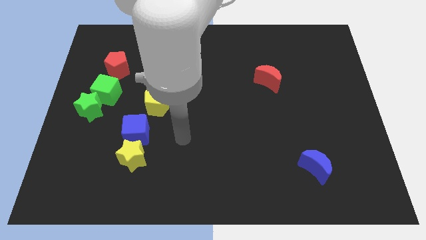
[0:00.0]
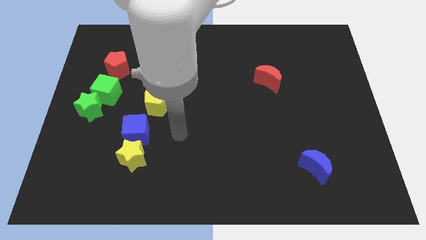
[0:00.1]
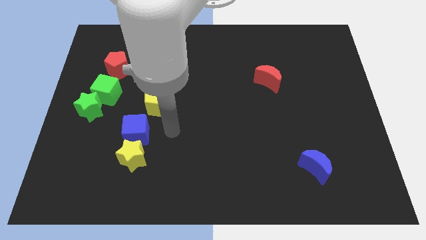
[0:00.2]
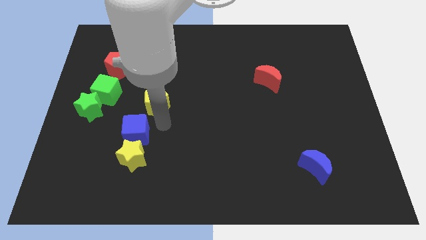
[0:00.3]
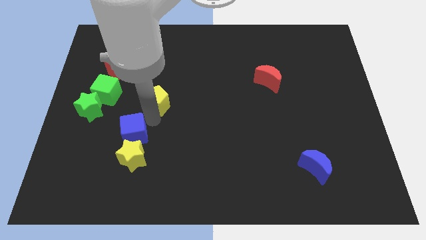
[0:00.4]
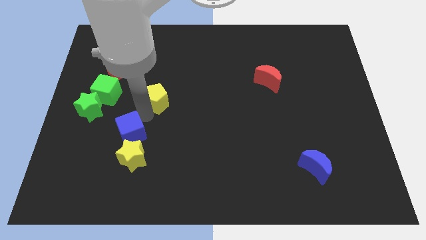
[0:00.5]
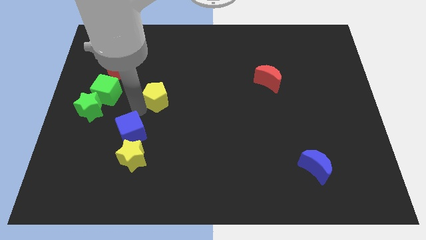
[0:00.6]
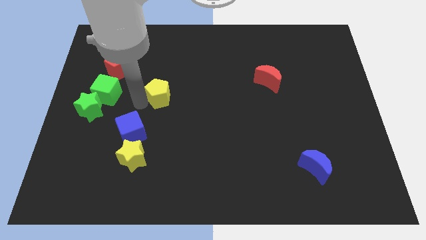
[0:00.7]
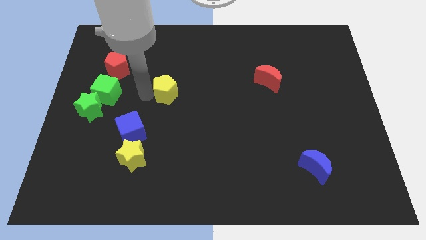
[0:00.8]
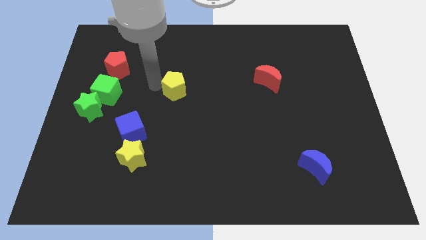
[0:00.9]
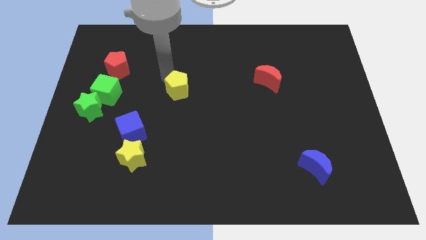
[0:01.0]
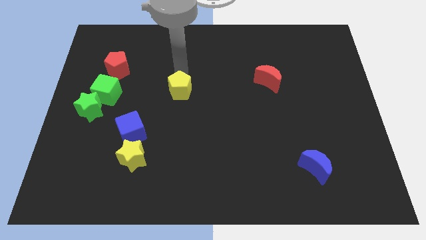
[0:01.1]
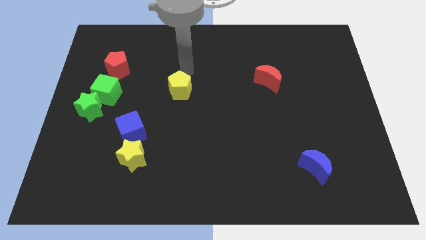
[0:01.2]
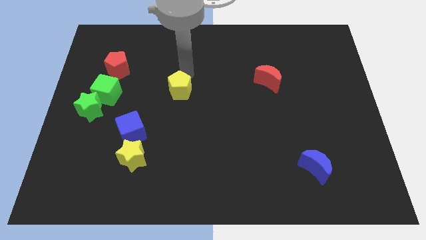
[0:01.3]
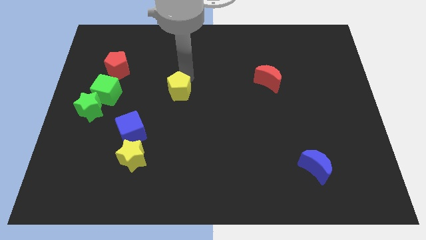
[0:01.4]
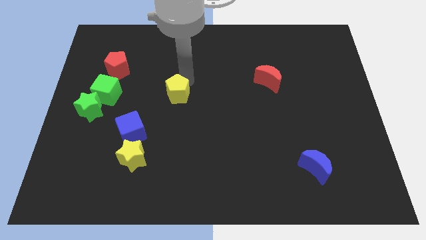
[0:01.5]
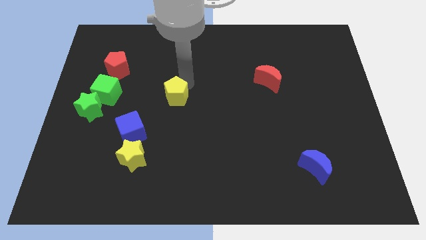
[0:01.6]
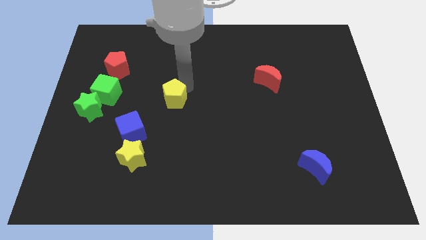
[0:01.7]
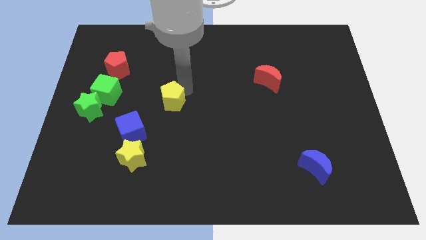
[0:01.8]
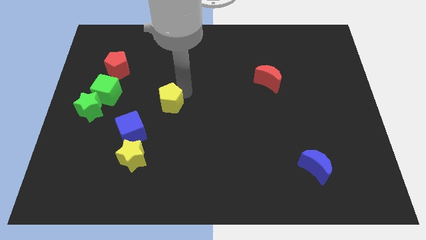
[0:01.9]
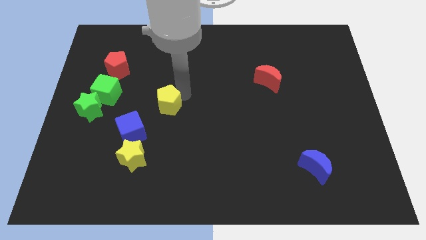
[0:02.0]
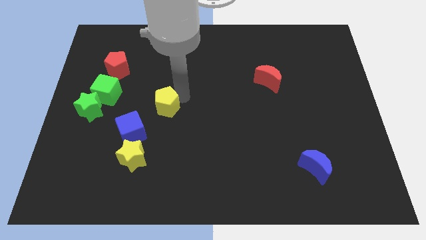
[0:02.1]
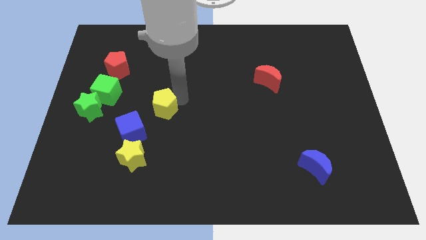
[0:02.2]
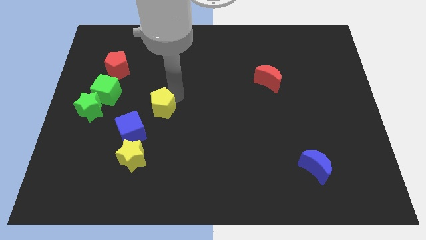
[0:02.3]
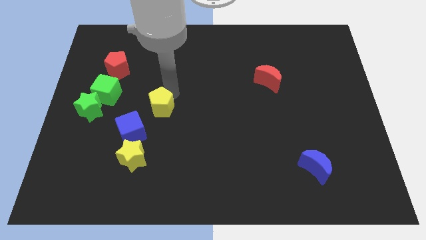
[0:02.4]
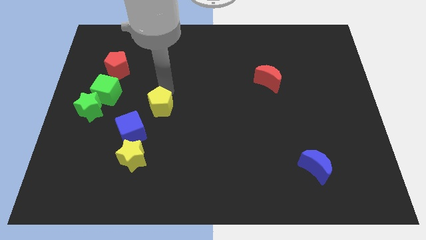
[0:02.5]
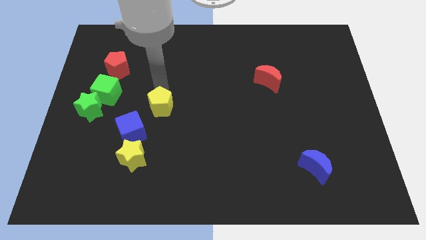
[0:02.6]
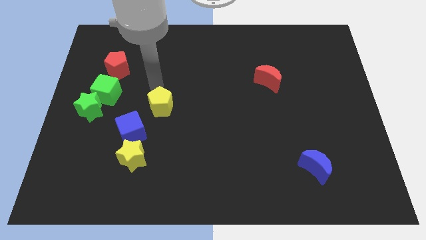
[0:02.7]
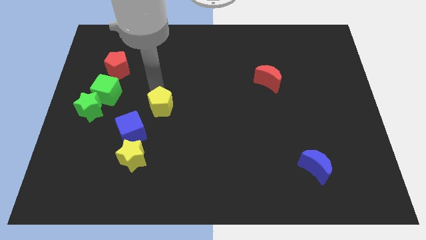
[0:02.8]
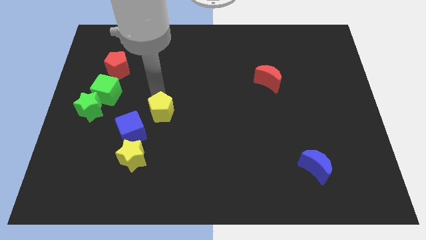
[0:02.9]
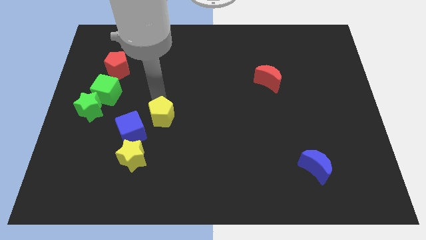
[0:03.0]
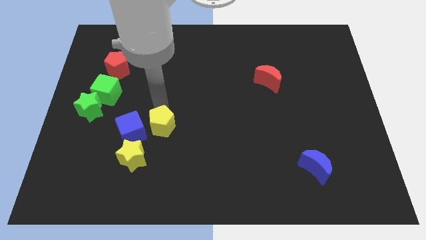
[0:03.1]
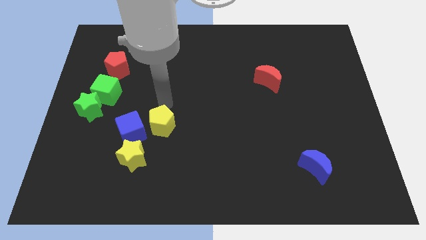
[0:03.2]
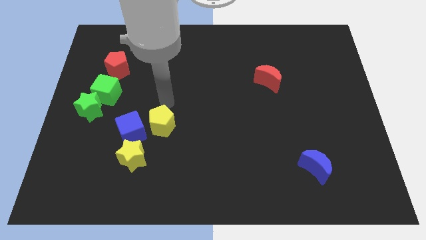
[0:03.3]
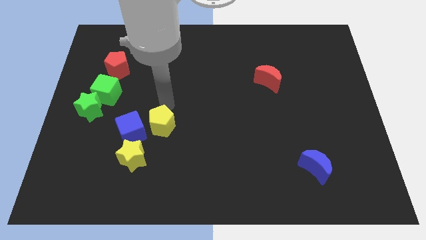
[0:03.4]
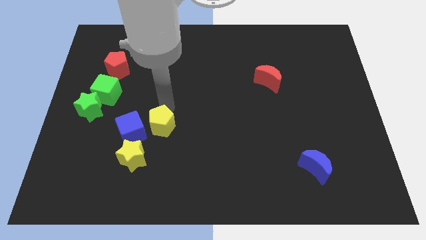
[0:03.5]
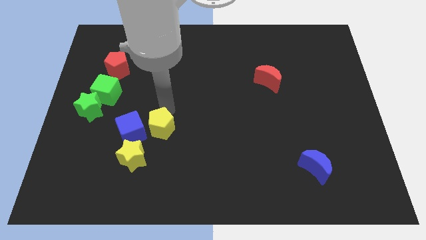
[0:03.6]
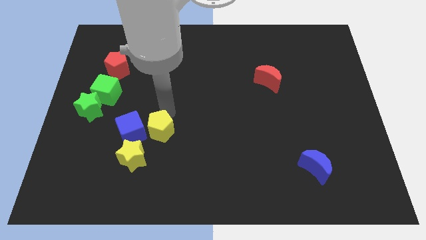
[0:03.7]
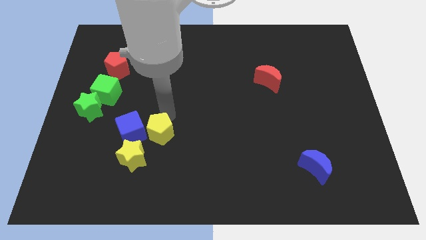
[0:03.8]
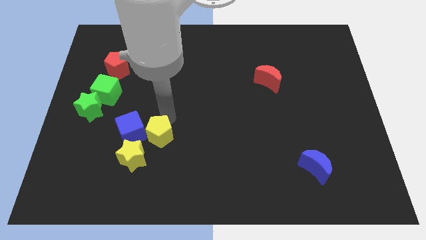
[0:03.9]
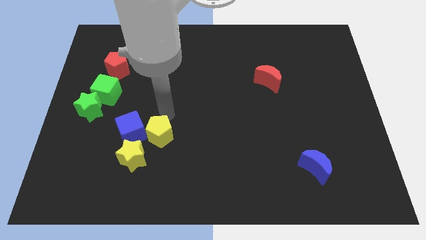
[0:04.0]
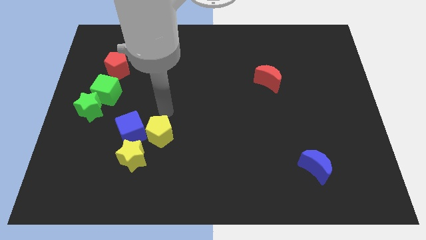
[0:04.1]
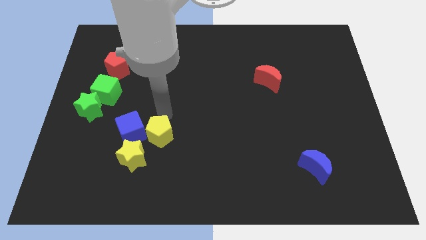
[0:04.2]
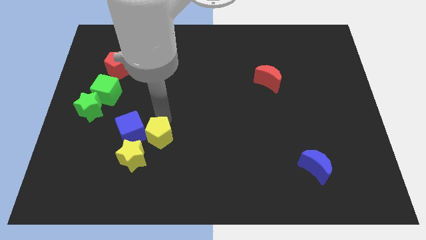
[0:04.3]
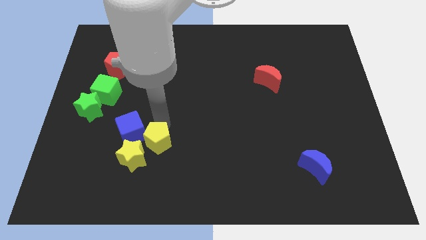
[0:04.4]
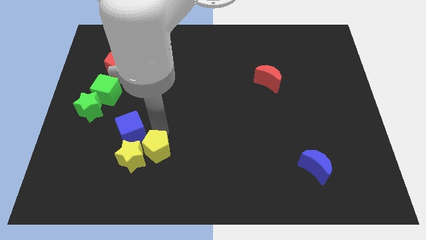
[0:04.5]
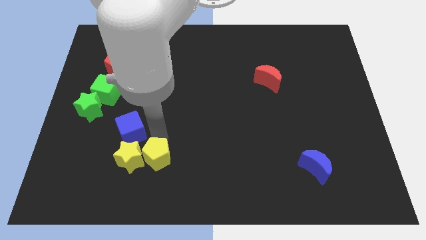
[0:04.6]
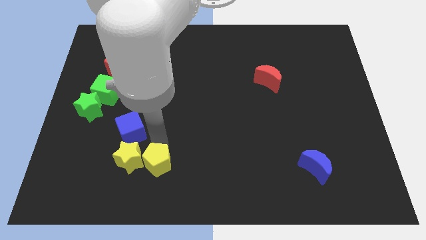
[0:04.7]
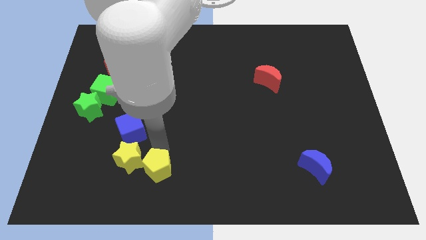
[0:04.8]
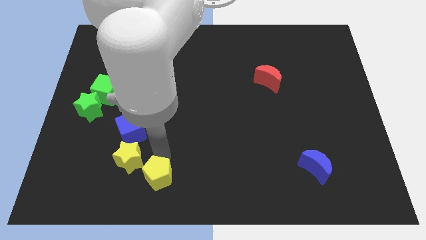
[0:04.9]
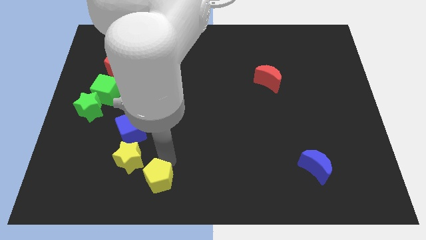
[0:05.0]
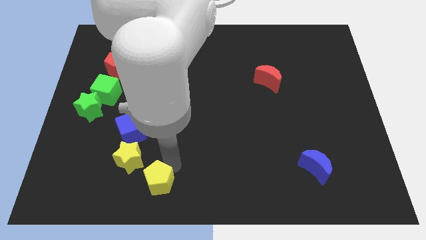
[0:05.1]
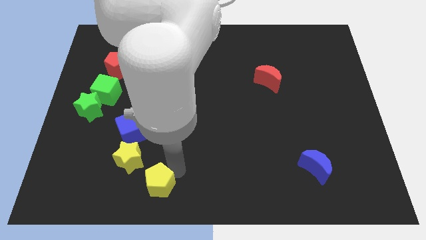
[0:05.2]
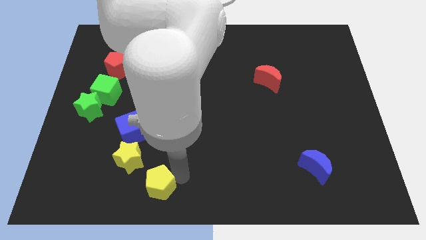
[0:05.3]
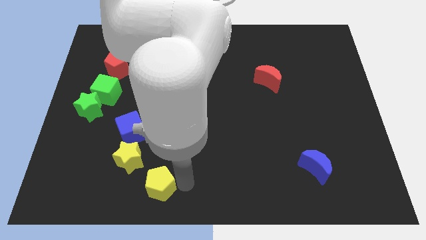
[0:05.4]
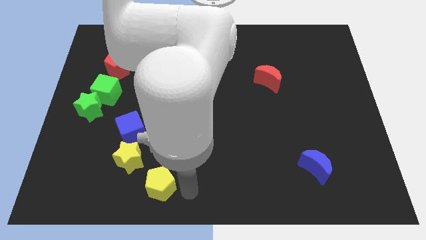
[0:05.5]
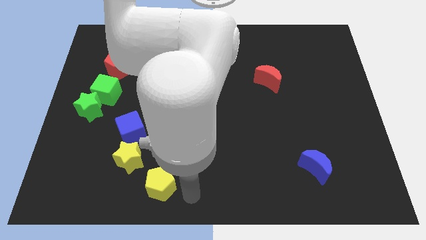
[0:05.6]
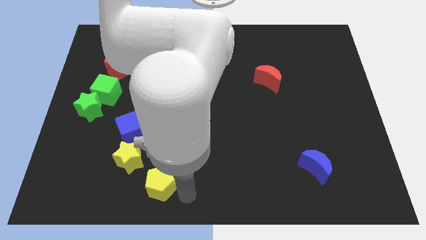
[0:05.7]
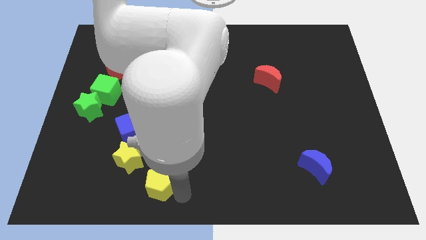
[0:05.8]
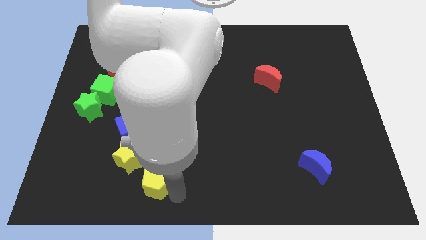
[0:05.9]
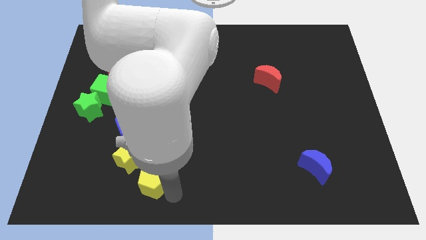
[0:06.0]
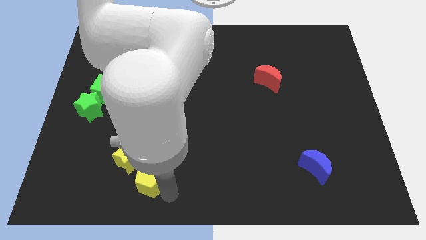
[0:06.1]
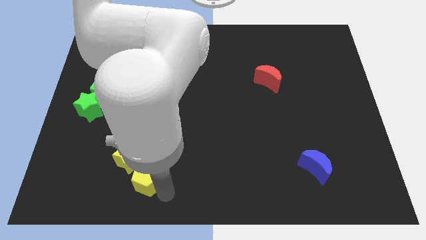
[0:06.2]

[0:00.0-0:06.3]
put the yellow pentagon below the blue cube

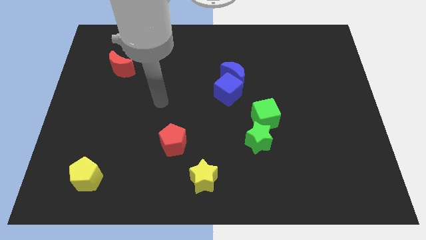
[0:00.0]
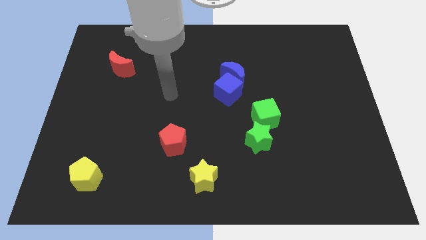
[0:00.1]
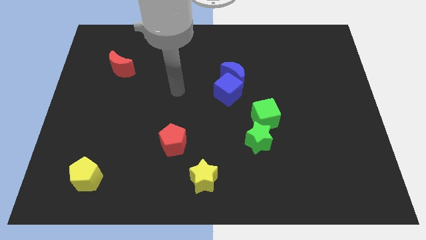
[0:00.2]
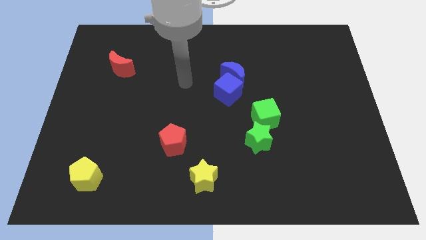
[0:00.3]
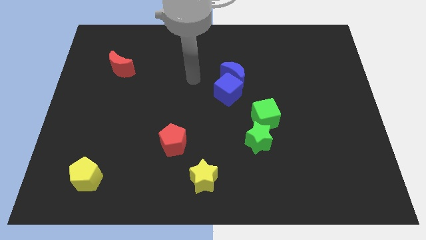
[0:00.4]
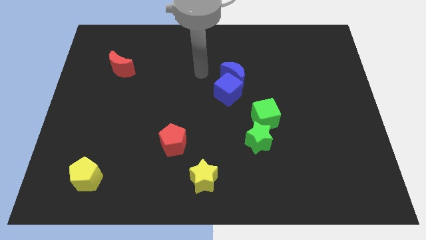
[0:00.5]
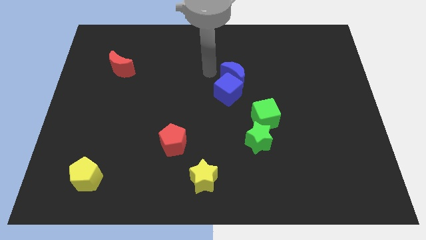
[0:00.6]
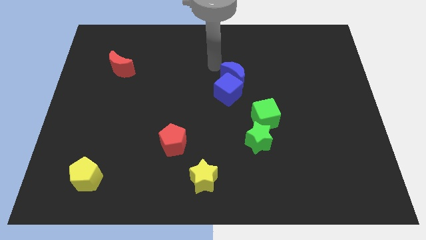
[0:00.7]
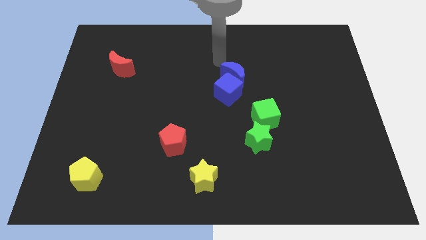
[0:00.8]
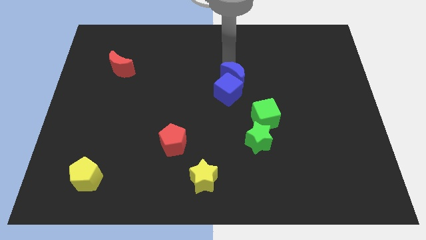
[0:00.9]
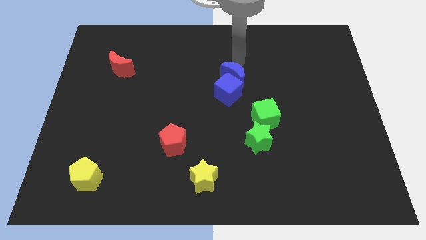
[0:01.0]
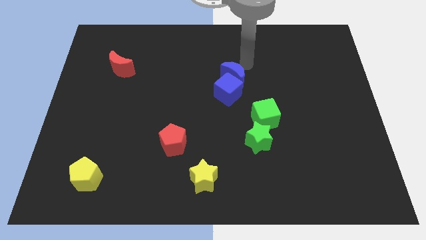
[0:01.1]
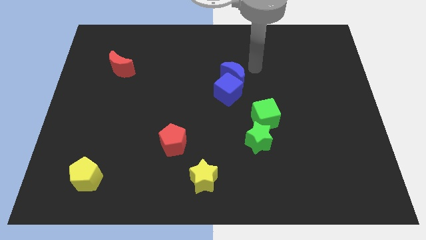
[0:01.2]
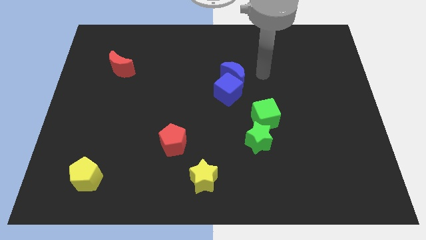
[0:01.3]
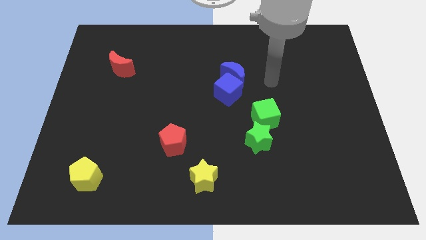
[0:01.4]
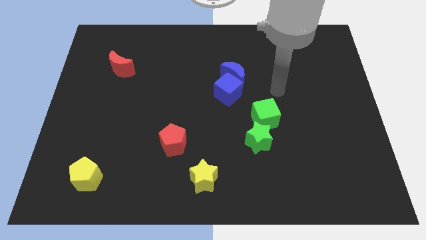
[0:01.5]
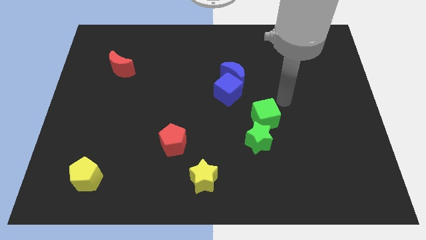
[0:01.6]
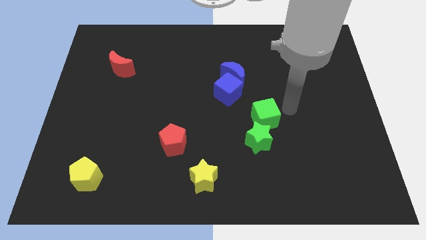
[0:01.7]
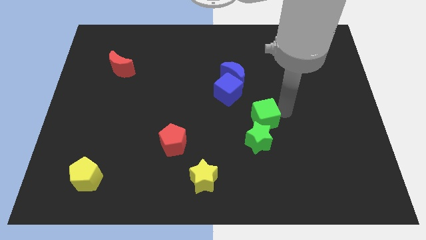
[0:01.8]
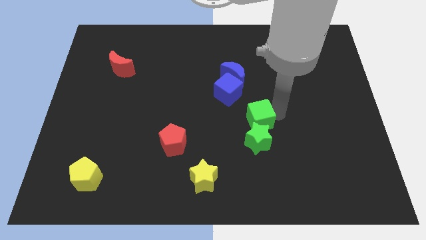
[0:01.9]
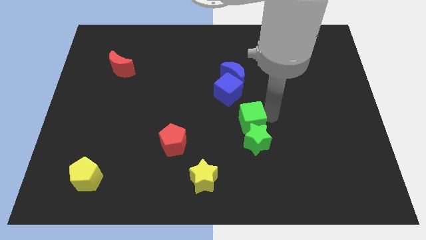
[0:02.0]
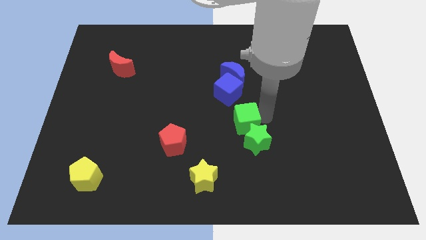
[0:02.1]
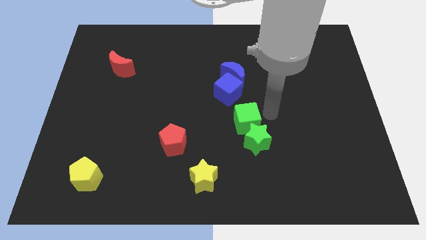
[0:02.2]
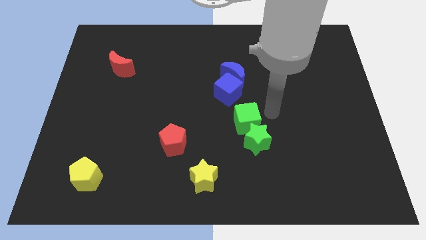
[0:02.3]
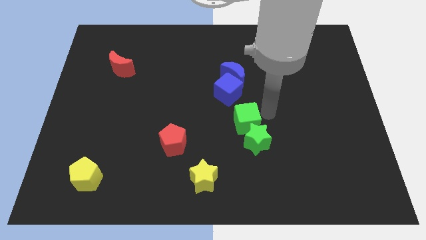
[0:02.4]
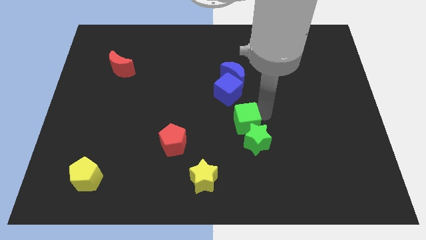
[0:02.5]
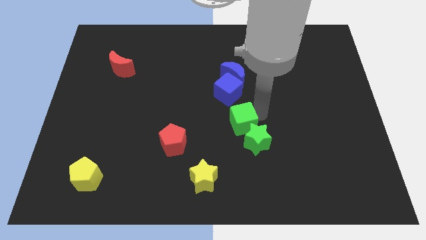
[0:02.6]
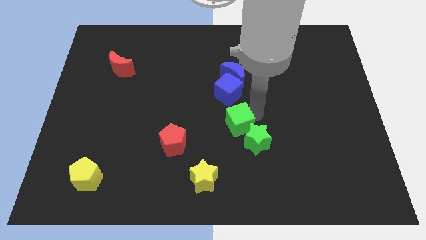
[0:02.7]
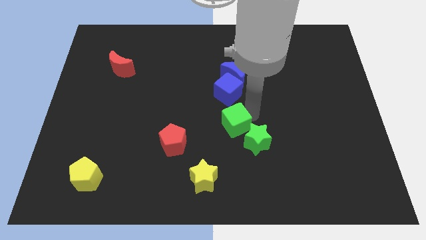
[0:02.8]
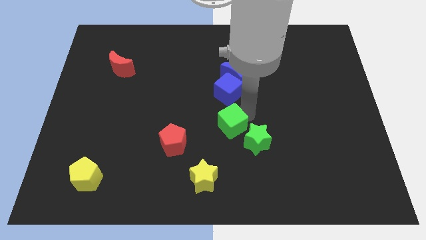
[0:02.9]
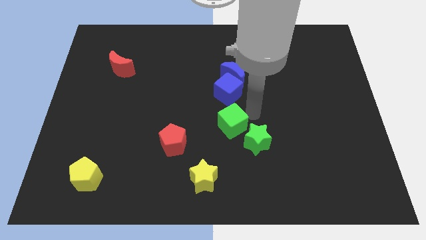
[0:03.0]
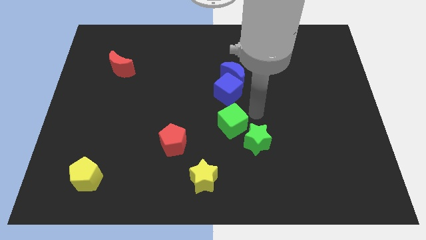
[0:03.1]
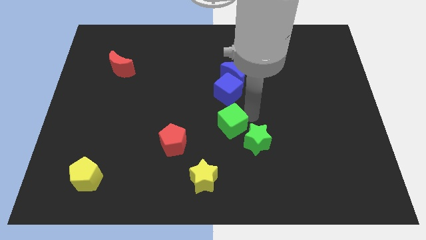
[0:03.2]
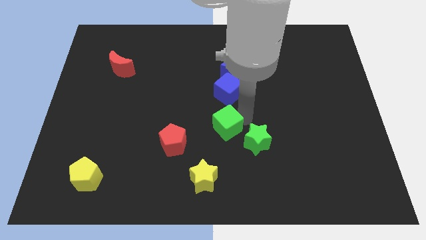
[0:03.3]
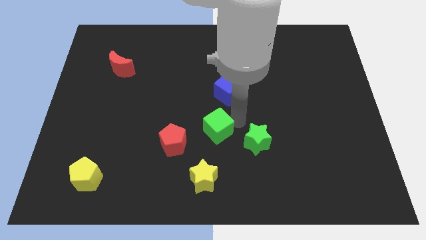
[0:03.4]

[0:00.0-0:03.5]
move the green cube to the top side of the yellow star
